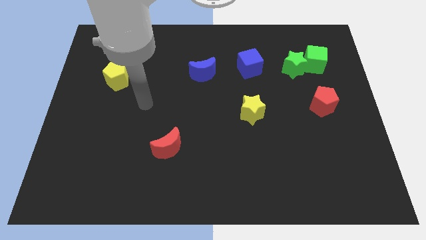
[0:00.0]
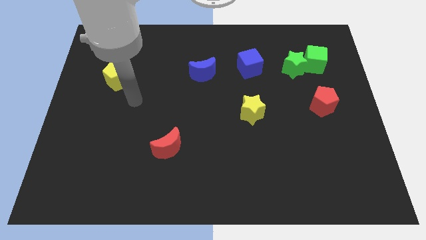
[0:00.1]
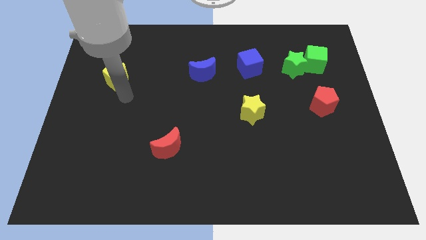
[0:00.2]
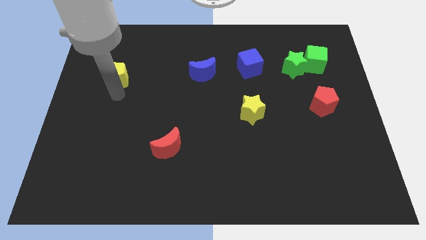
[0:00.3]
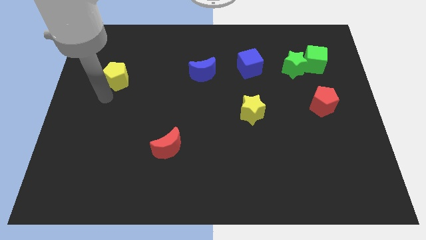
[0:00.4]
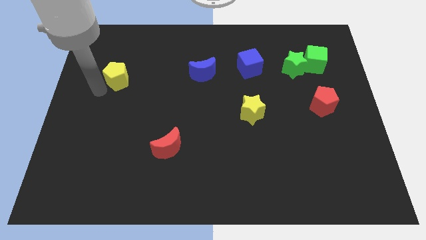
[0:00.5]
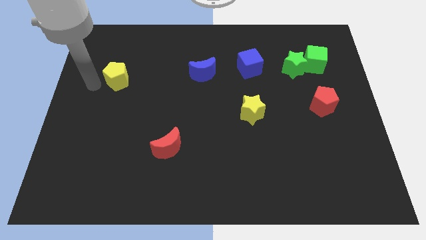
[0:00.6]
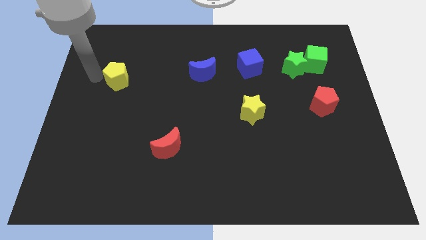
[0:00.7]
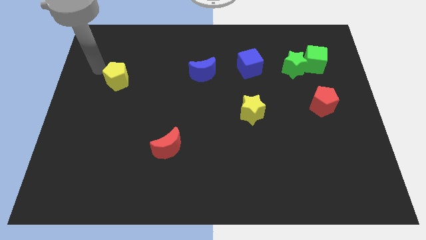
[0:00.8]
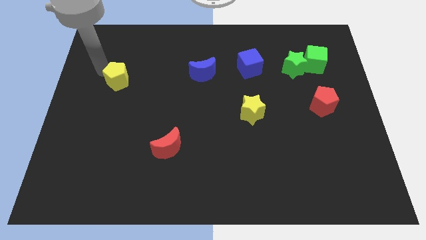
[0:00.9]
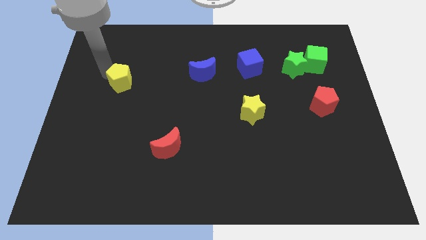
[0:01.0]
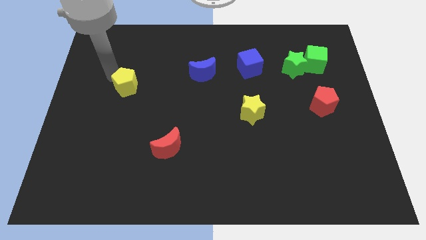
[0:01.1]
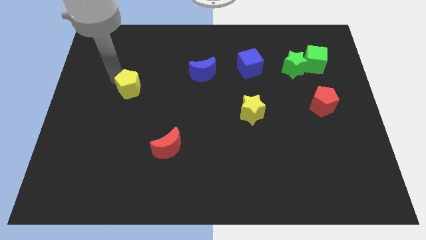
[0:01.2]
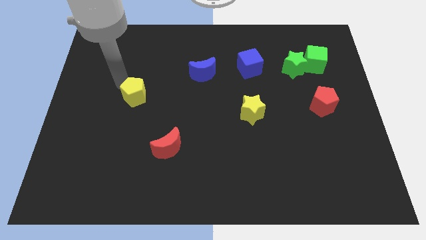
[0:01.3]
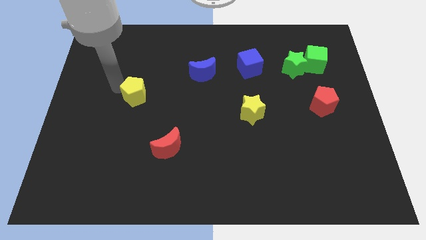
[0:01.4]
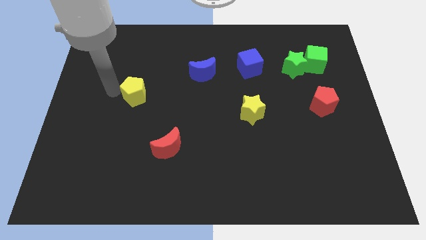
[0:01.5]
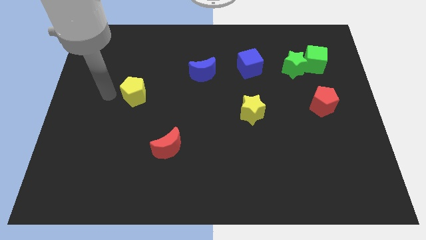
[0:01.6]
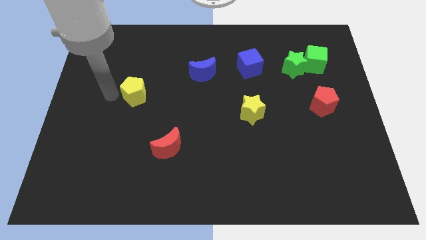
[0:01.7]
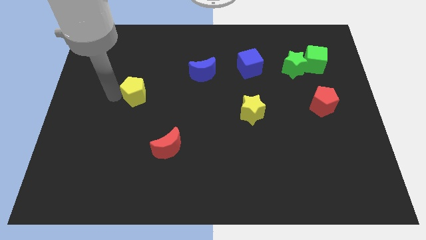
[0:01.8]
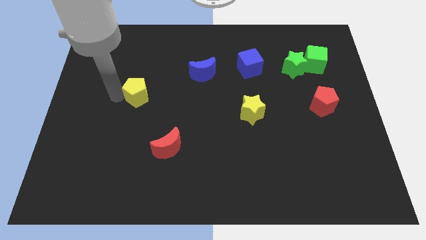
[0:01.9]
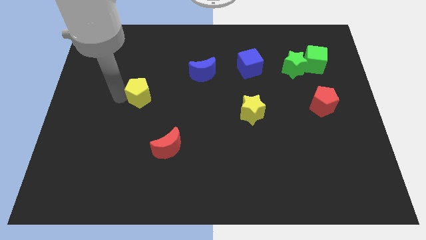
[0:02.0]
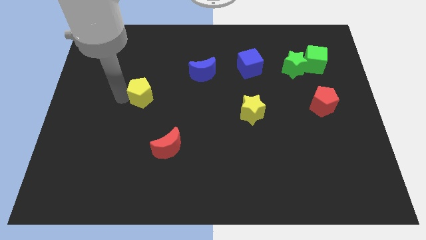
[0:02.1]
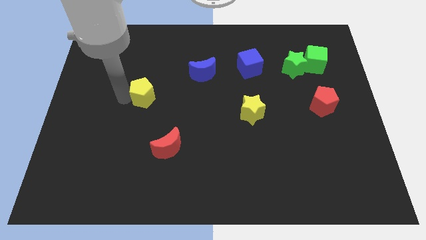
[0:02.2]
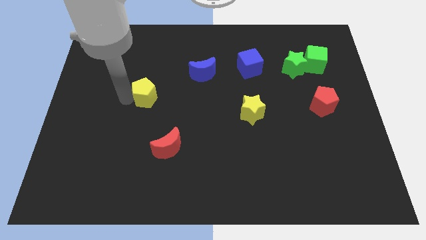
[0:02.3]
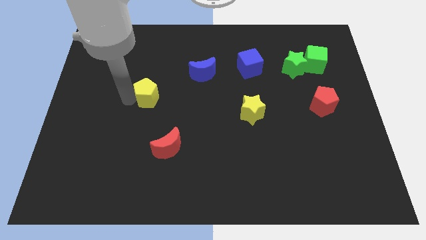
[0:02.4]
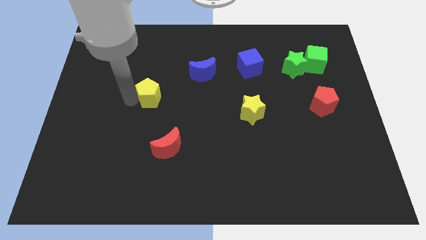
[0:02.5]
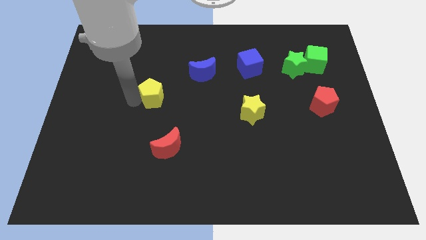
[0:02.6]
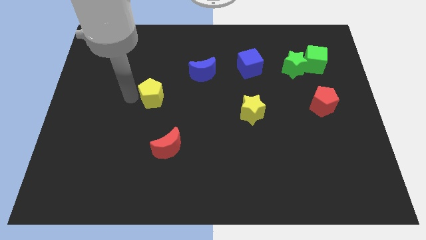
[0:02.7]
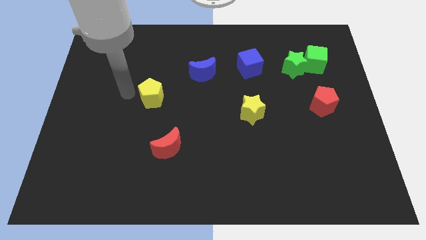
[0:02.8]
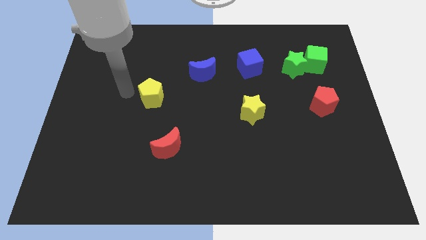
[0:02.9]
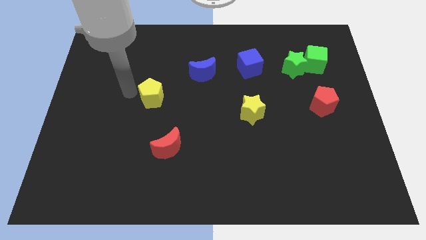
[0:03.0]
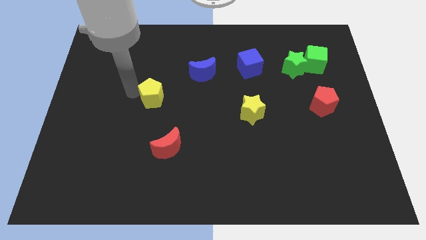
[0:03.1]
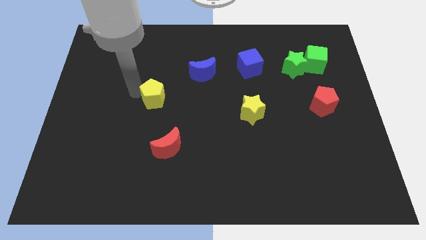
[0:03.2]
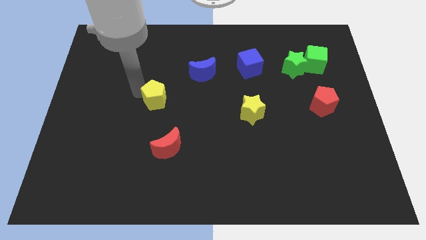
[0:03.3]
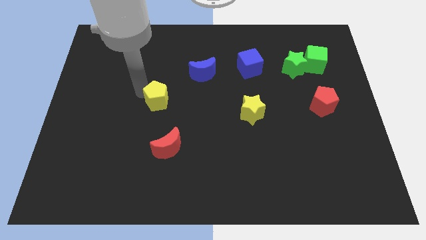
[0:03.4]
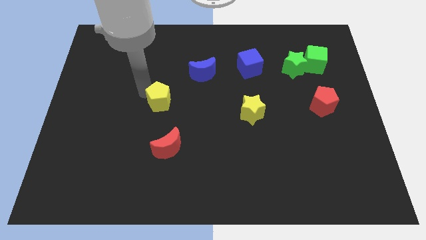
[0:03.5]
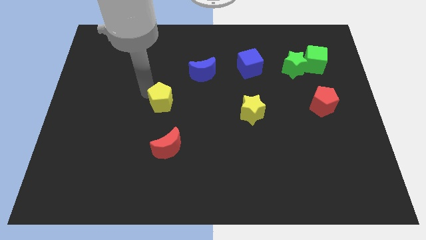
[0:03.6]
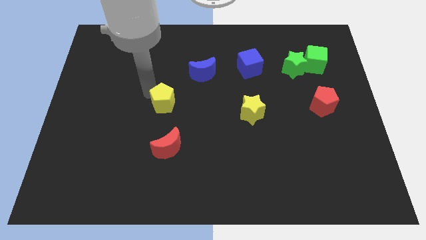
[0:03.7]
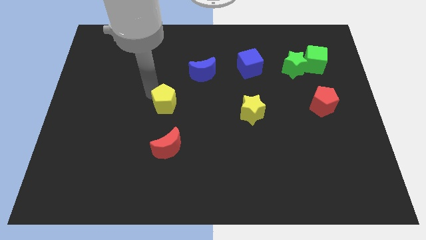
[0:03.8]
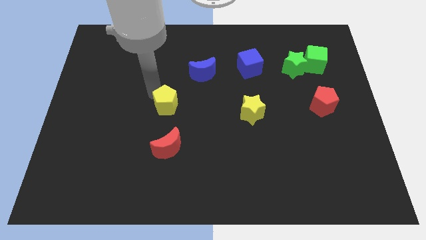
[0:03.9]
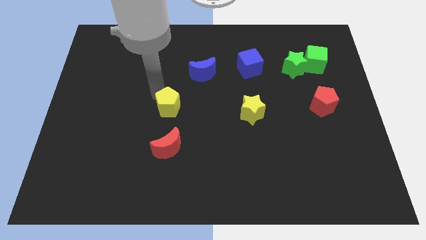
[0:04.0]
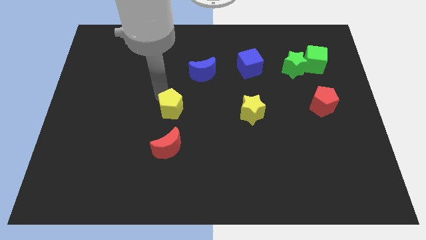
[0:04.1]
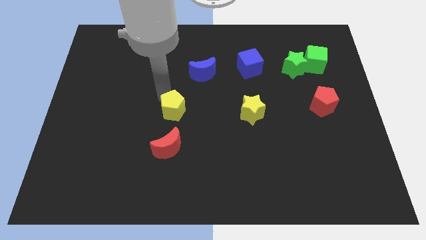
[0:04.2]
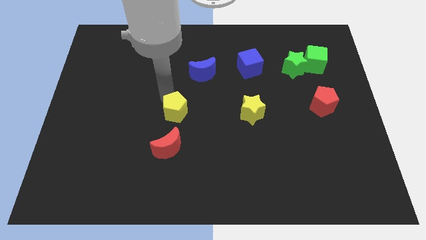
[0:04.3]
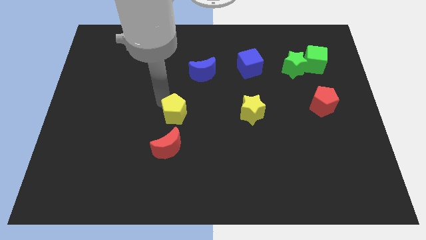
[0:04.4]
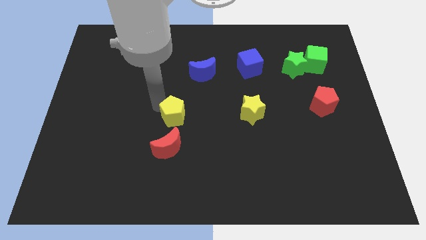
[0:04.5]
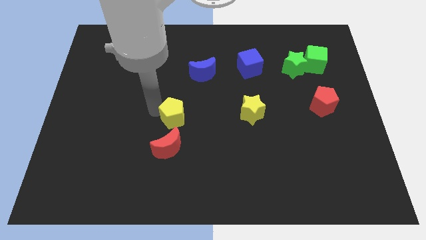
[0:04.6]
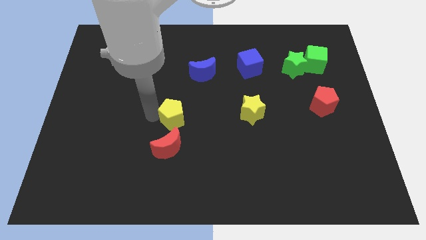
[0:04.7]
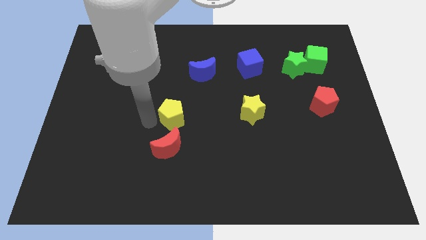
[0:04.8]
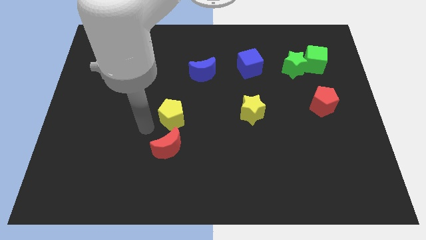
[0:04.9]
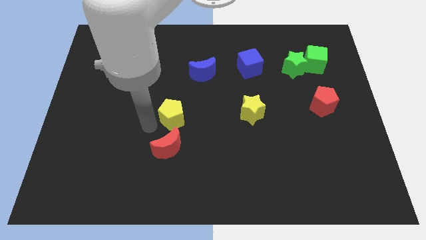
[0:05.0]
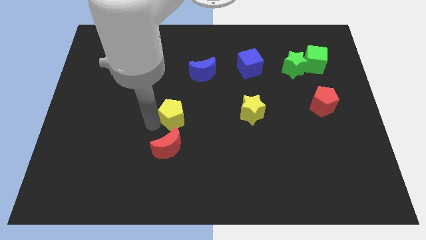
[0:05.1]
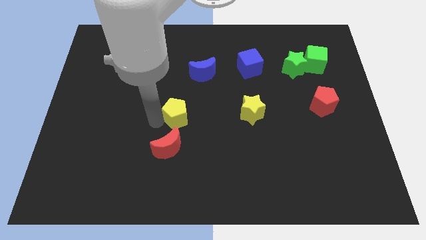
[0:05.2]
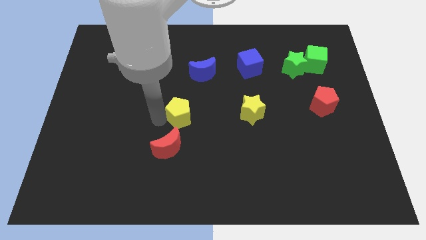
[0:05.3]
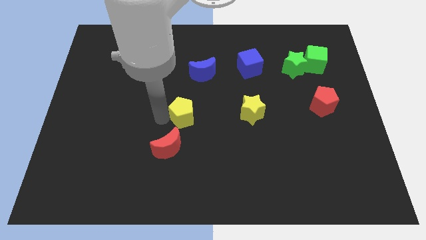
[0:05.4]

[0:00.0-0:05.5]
put the yellow pentagon to the bottom side of the blue moon
